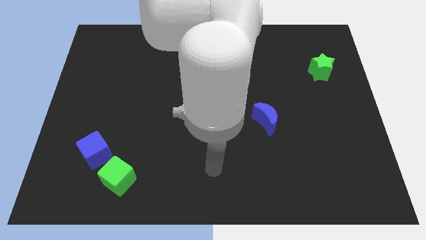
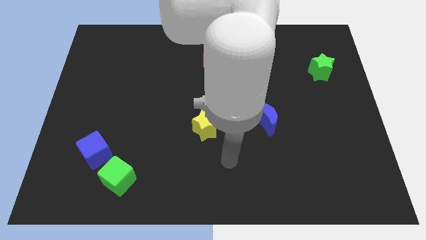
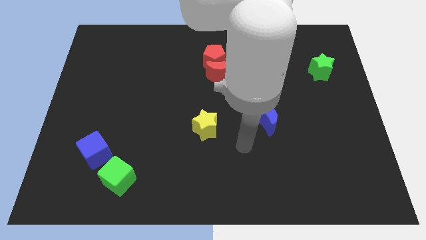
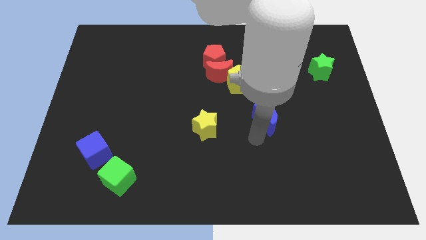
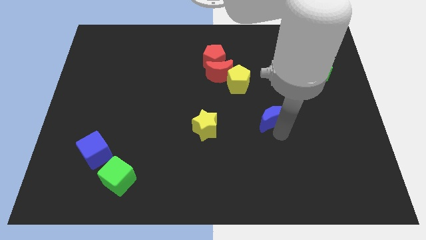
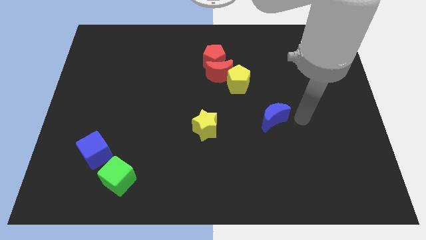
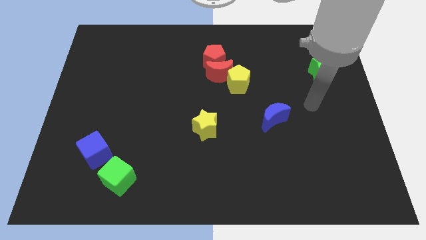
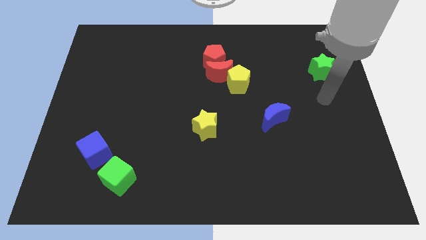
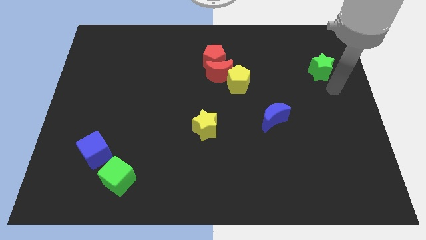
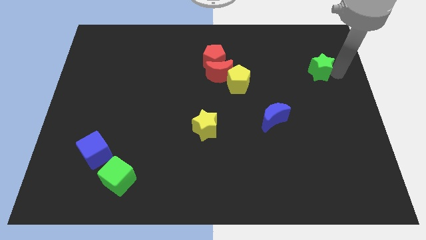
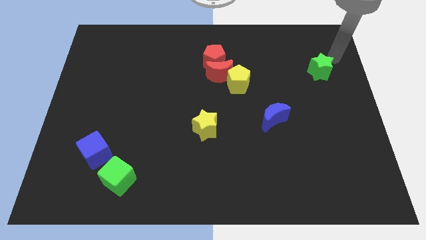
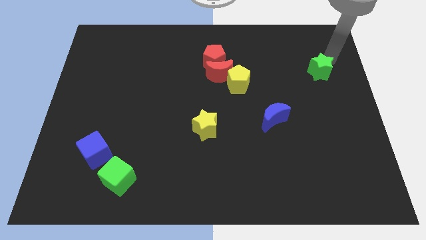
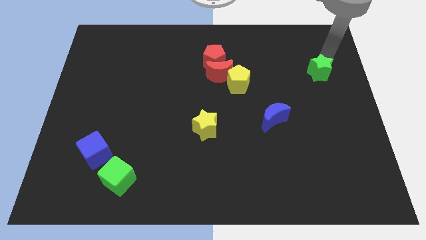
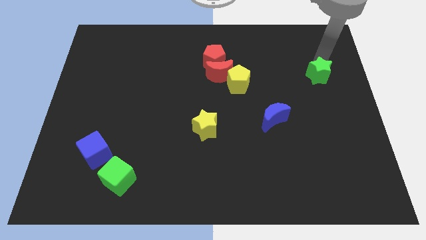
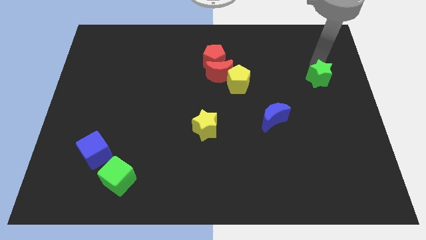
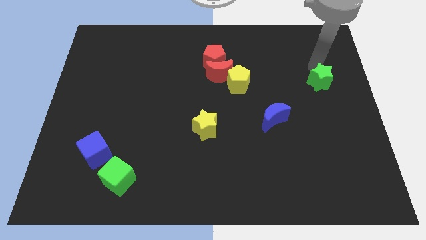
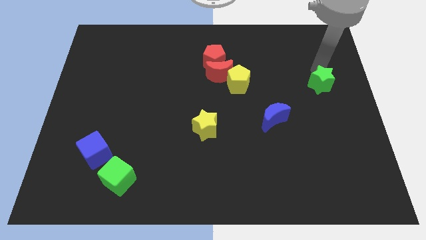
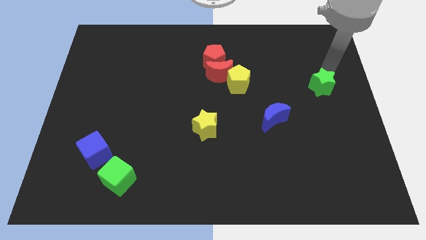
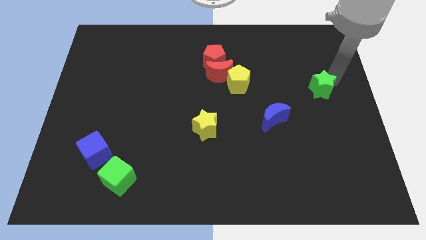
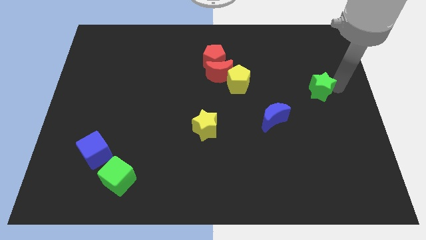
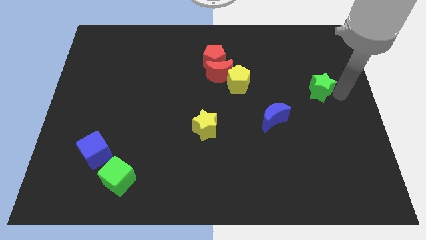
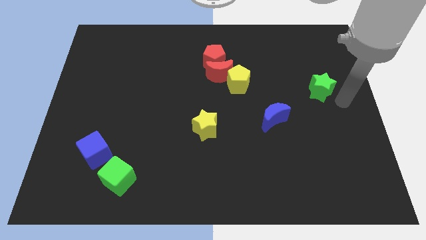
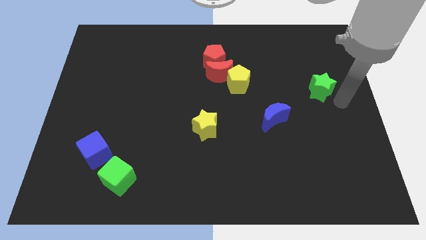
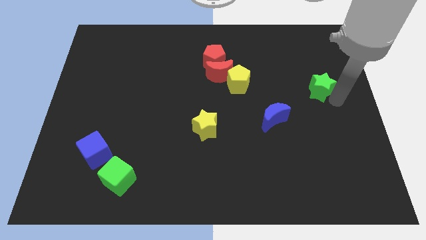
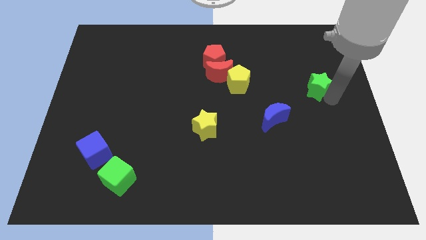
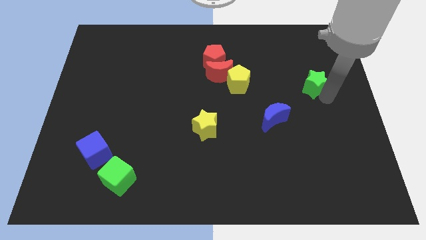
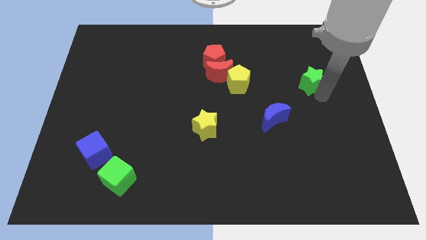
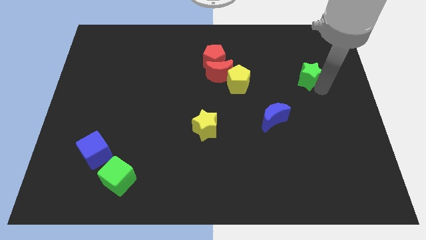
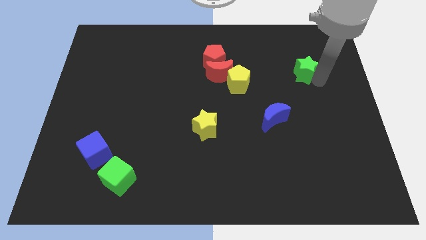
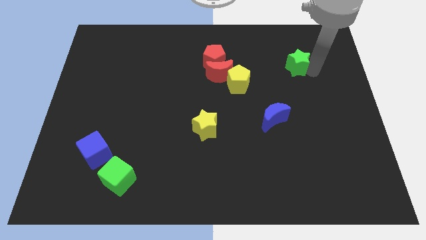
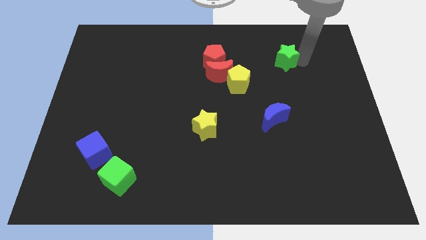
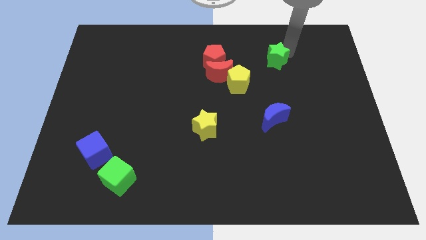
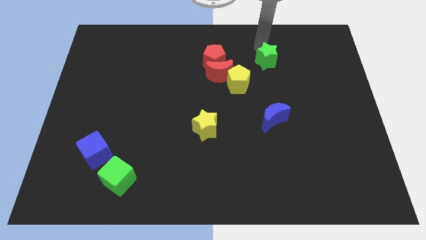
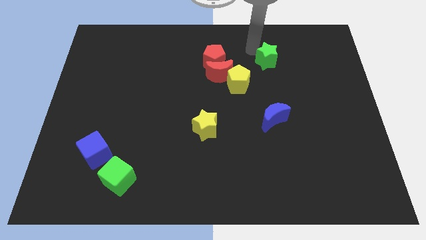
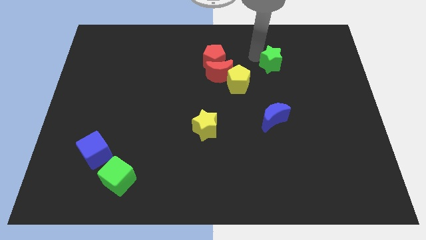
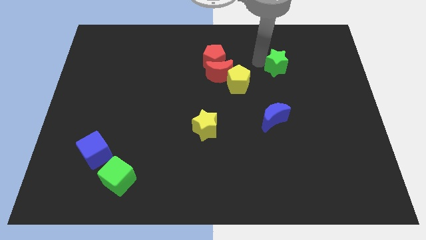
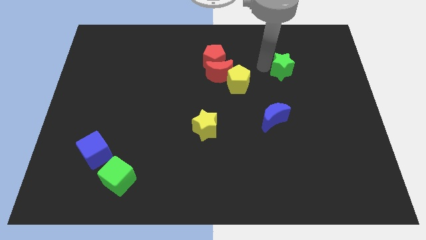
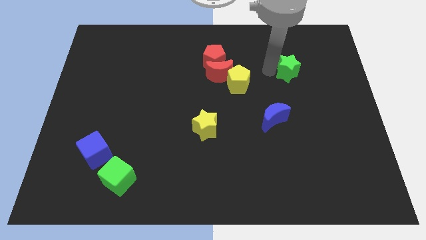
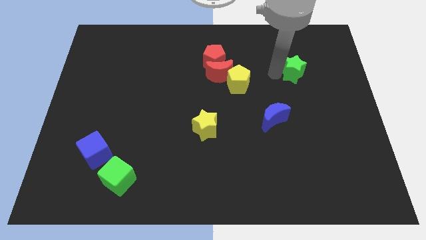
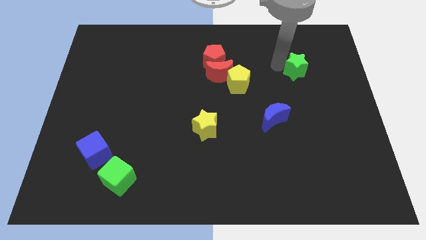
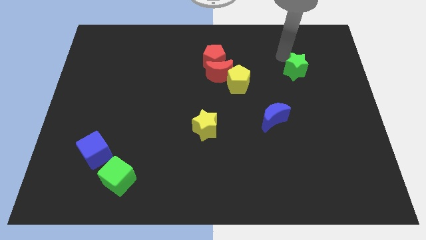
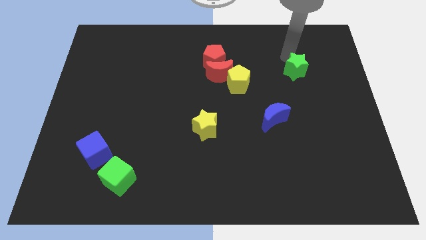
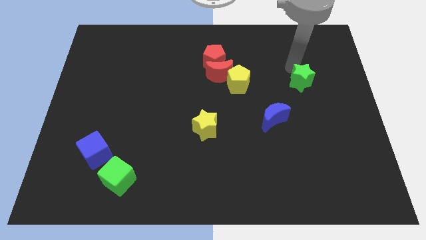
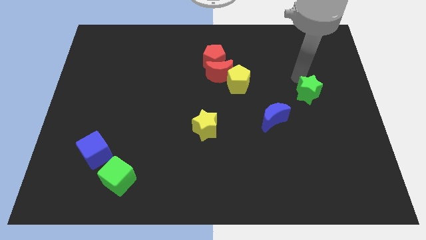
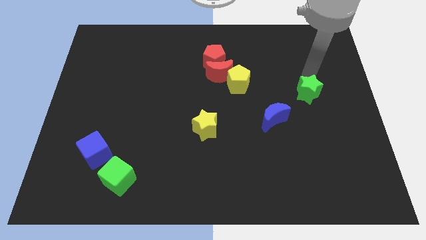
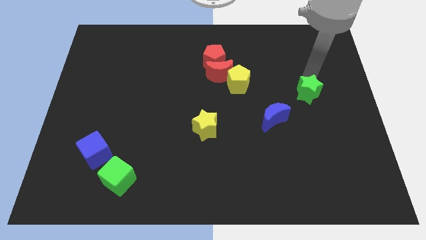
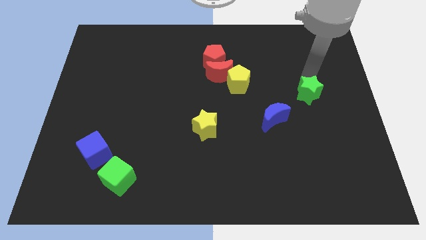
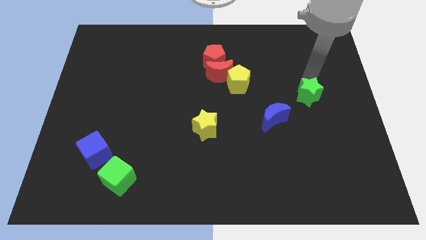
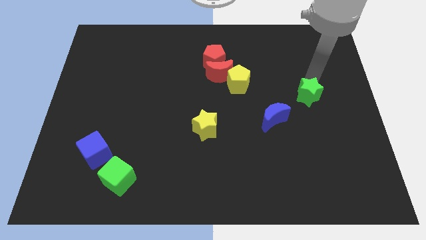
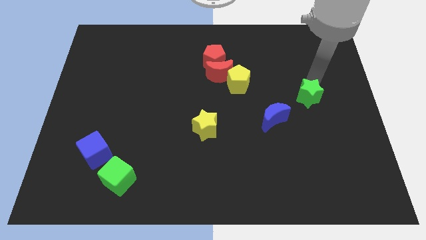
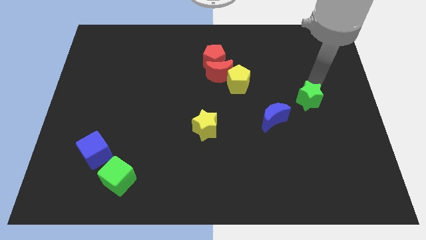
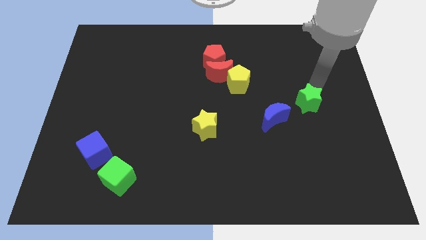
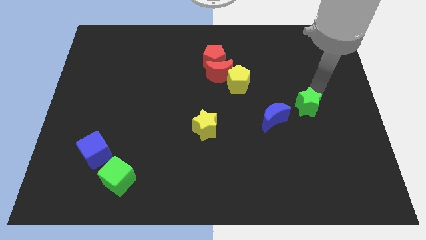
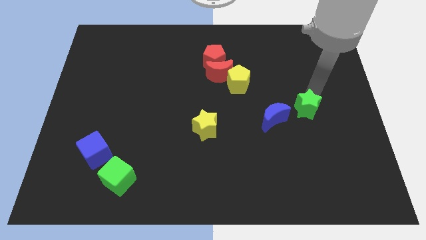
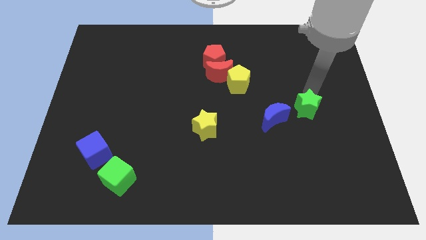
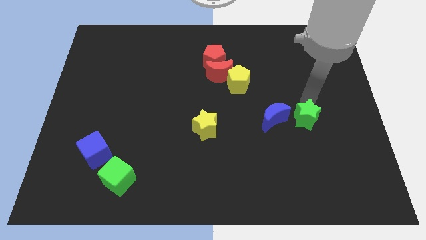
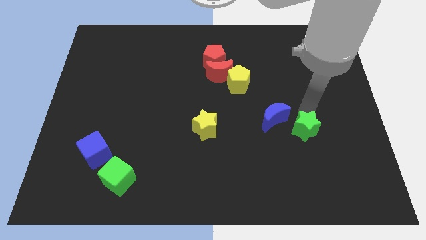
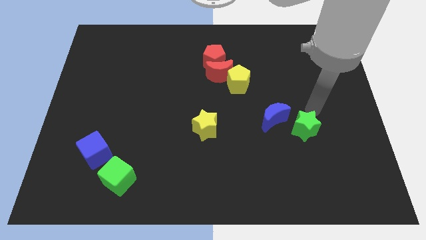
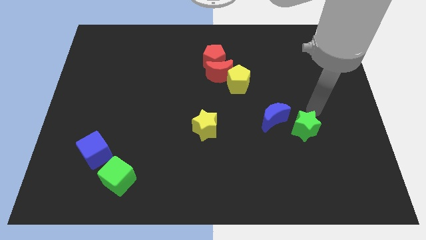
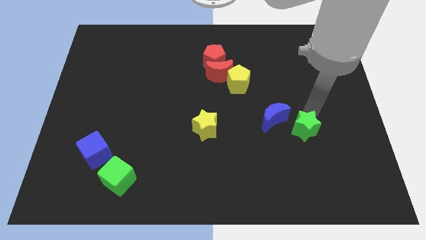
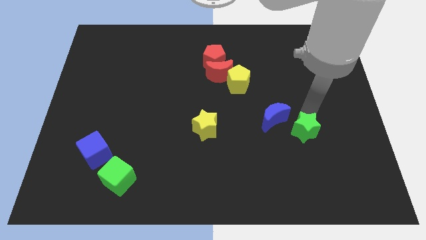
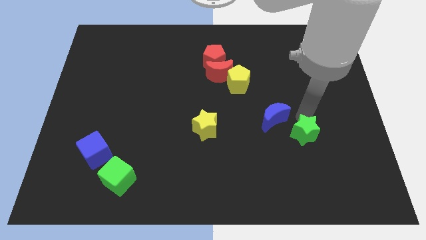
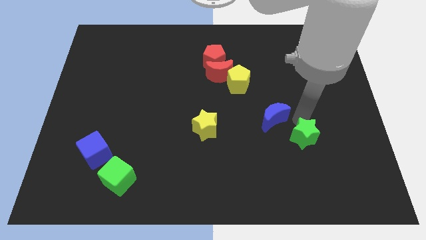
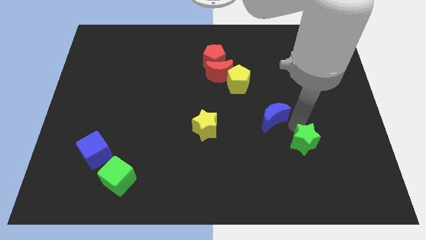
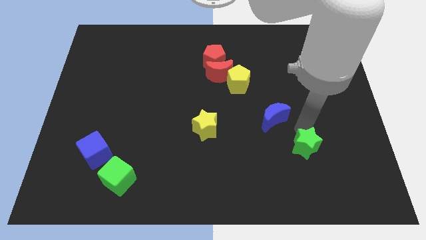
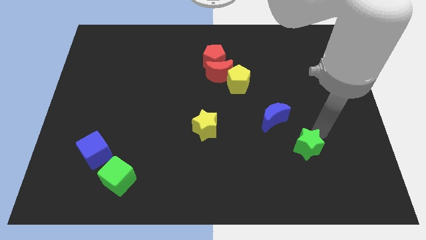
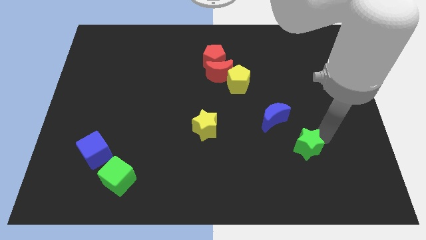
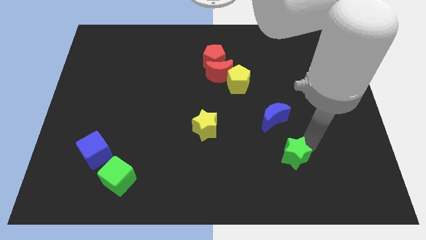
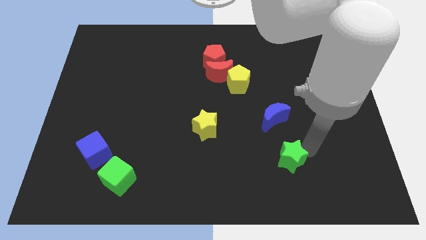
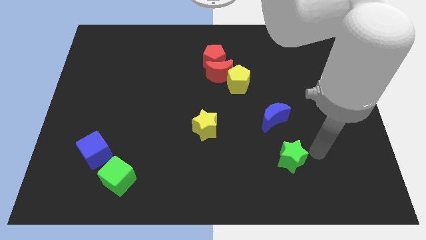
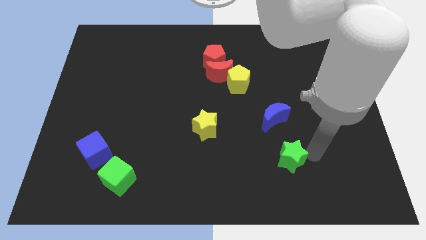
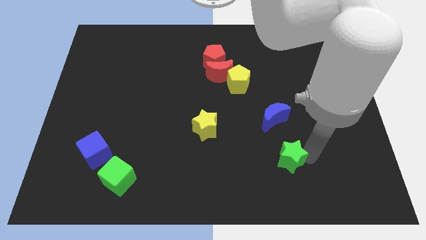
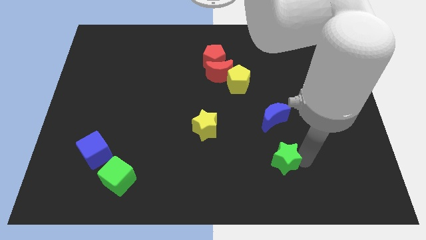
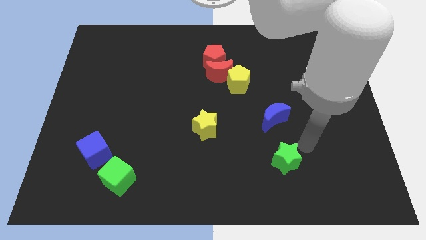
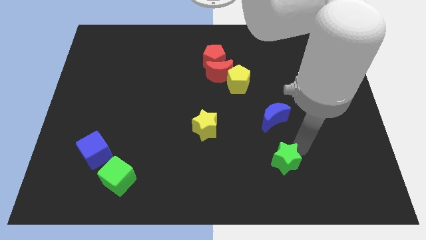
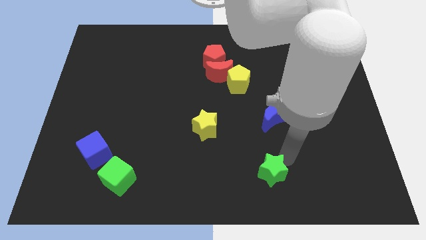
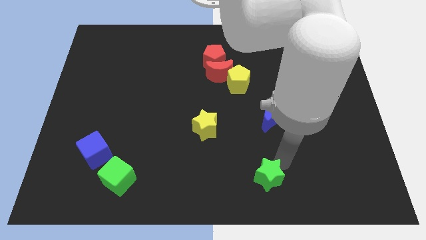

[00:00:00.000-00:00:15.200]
slide the green star to the bottom
